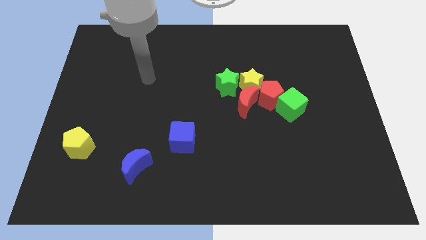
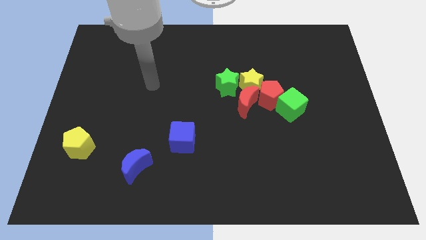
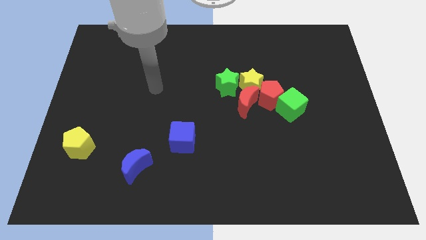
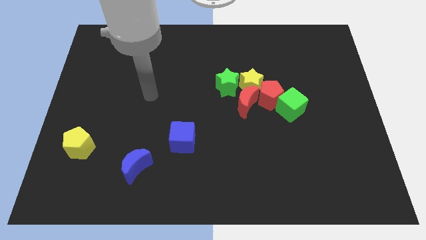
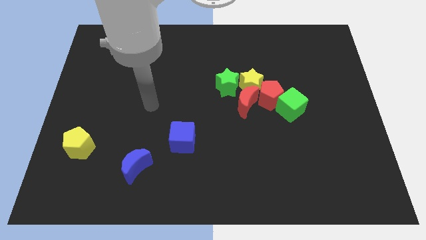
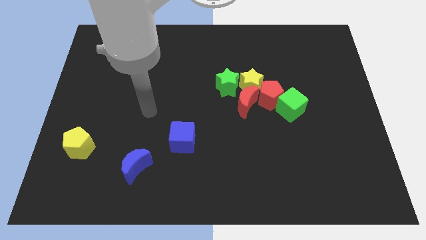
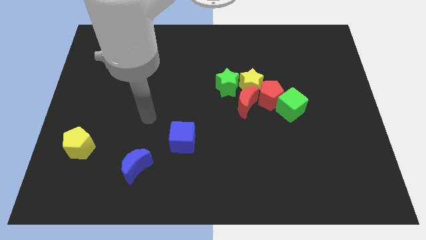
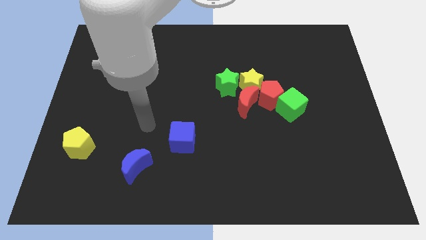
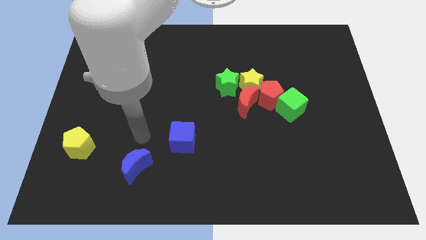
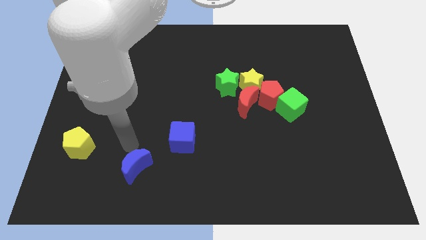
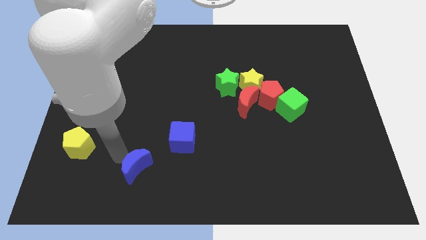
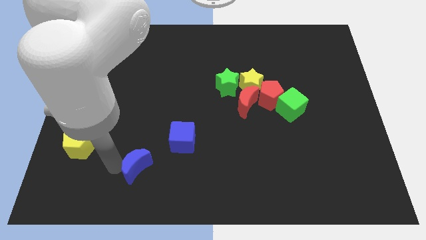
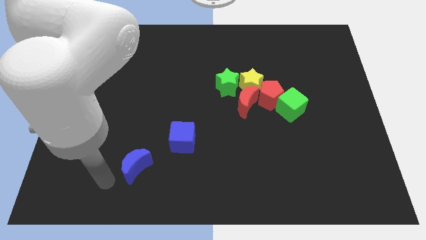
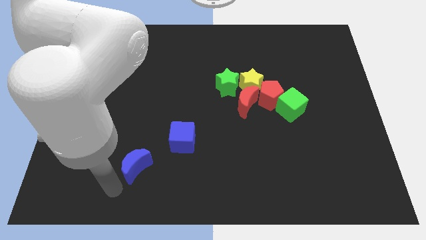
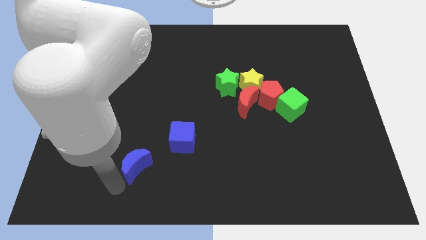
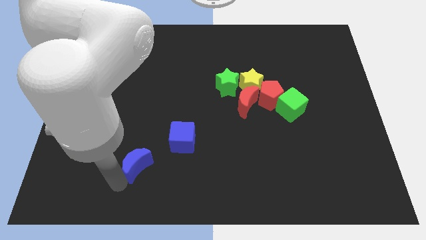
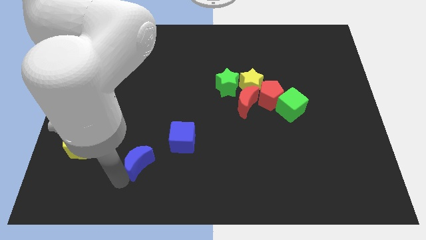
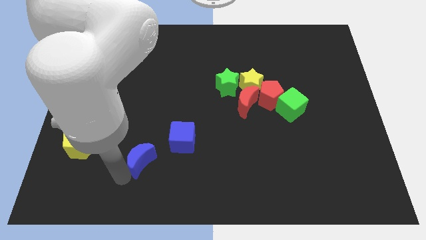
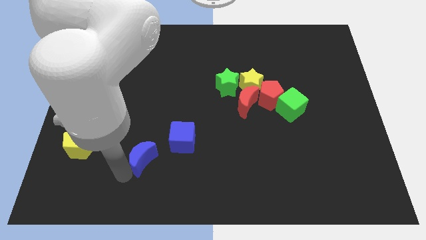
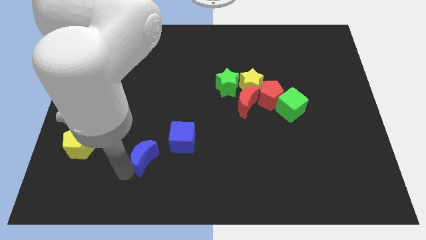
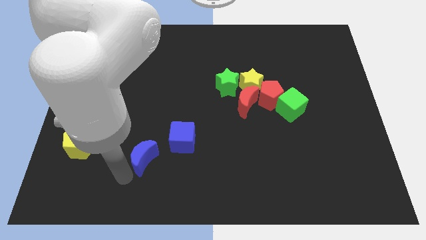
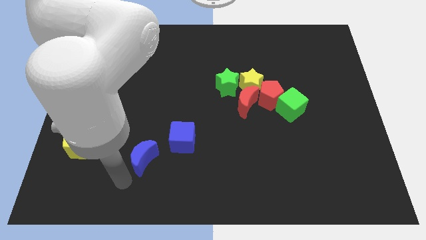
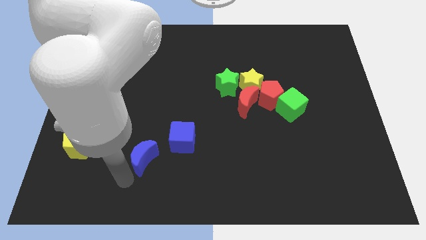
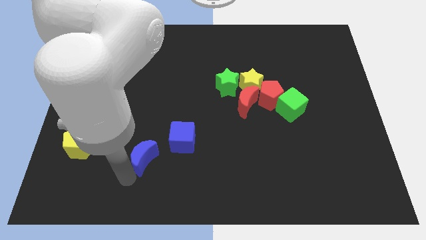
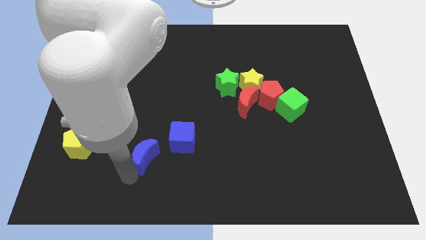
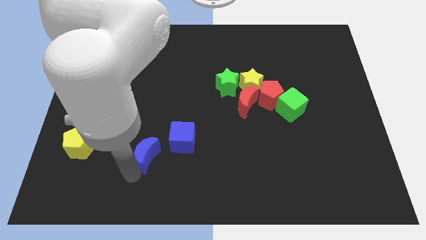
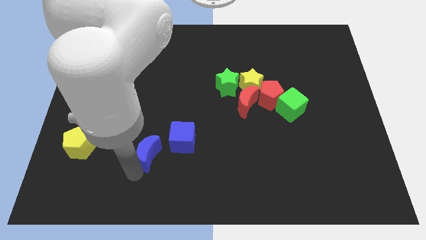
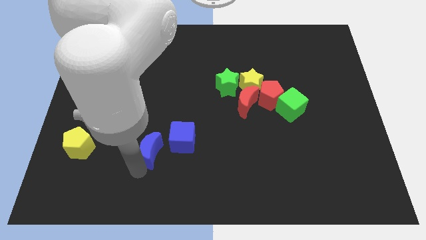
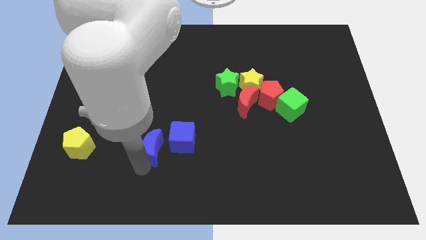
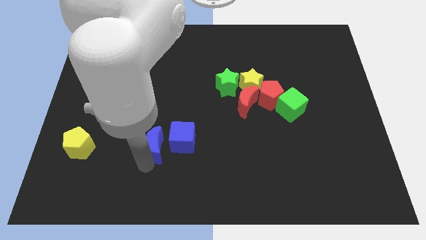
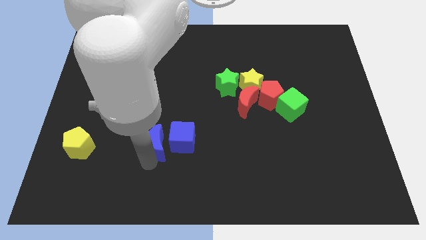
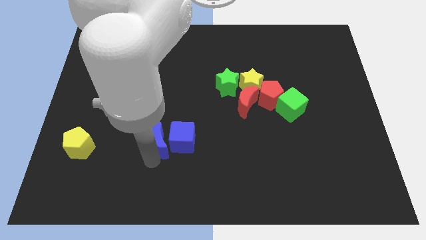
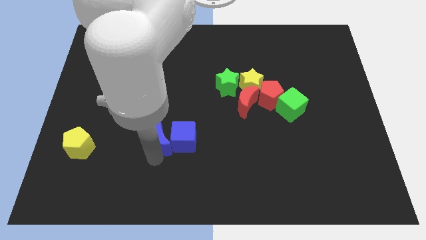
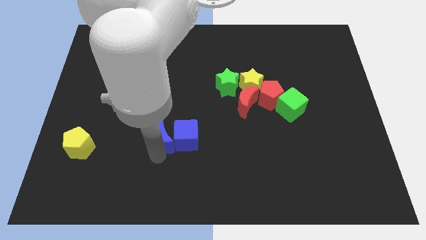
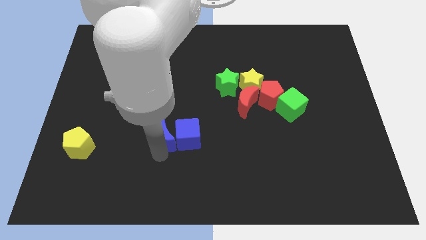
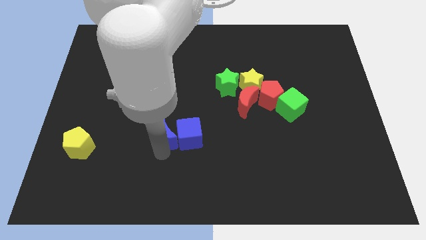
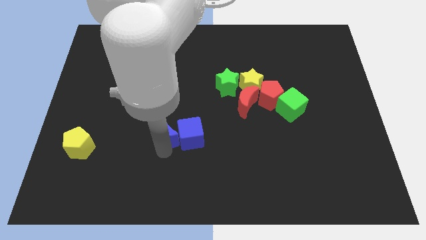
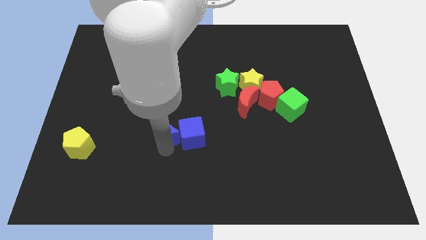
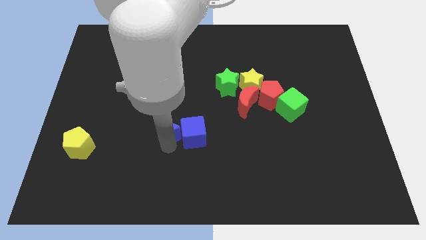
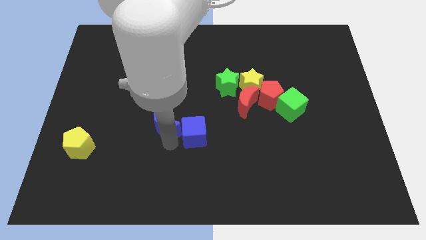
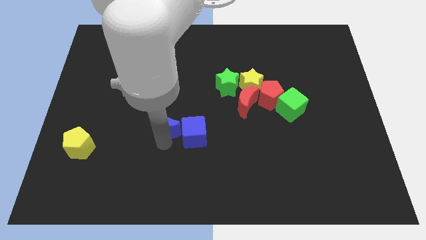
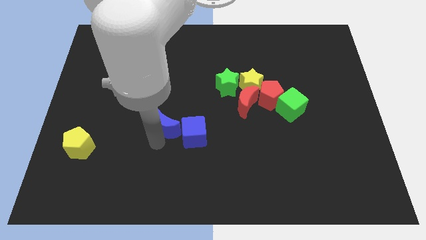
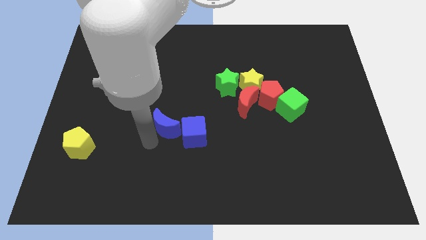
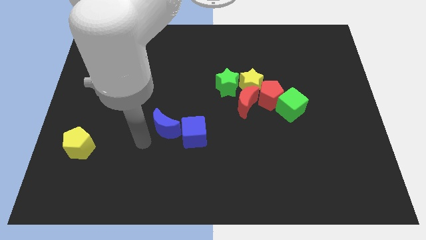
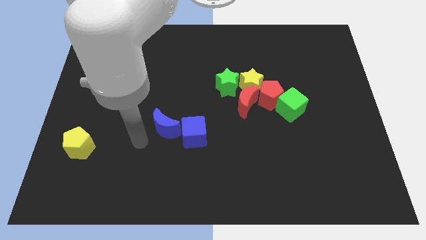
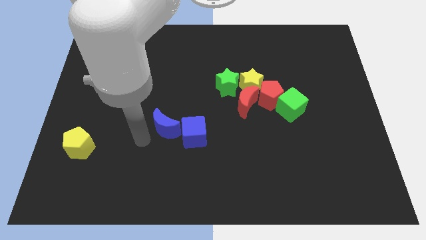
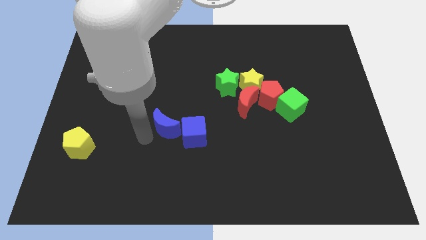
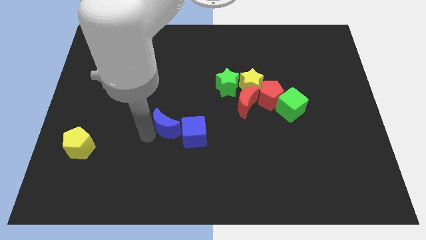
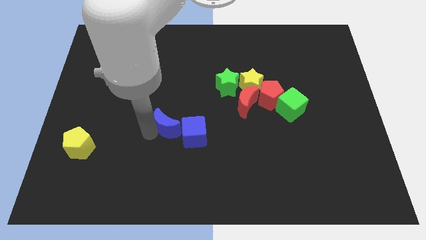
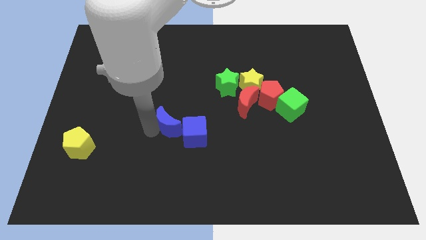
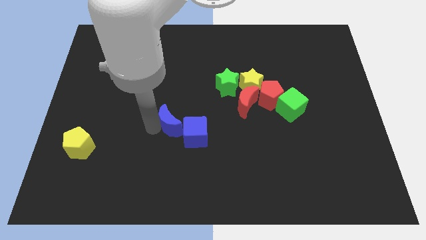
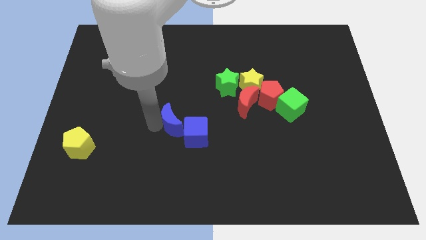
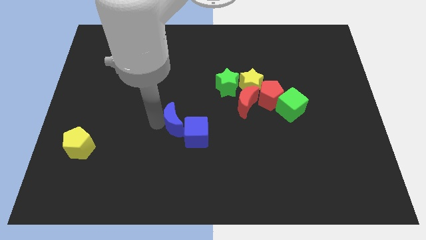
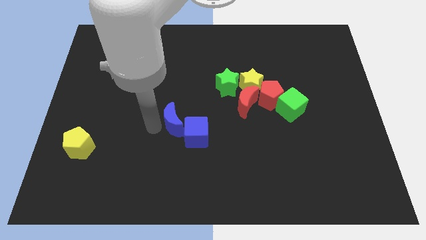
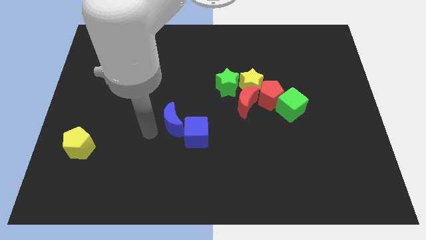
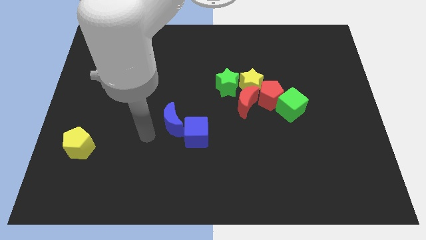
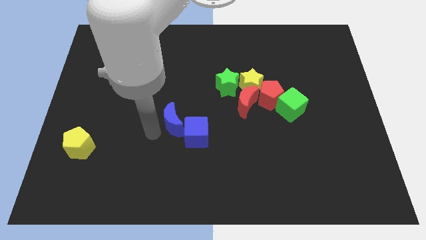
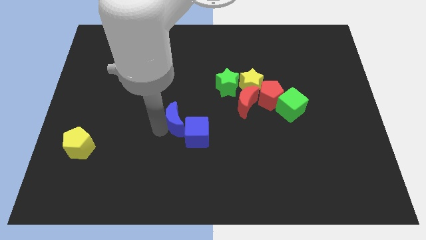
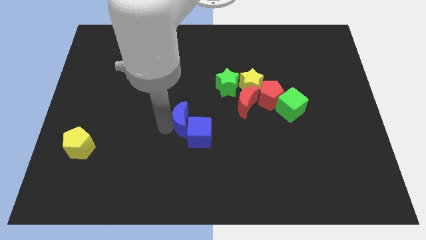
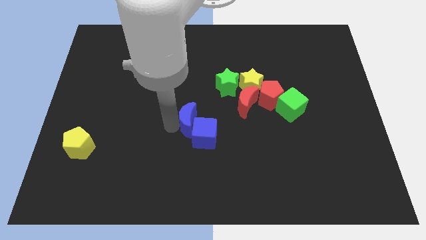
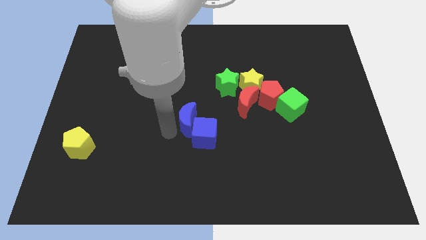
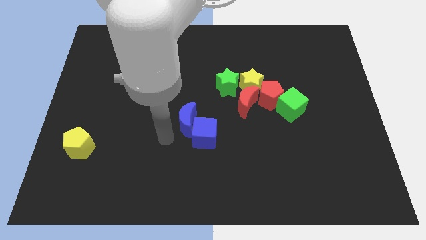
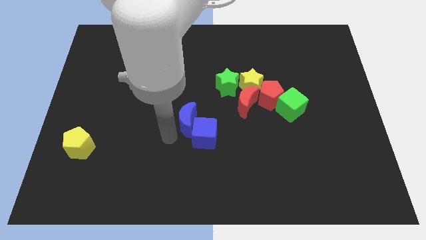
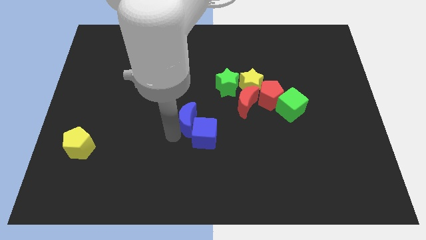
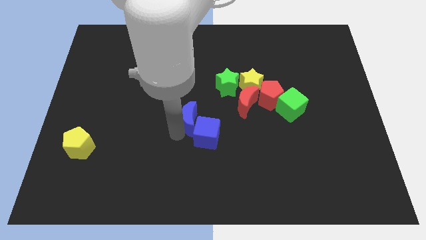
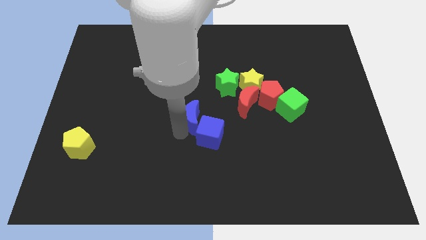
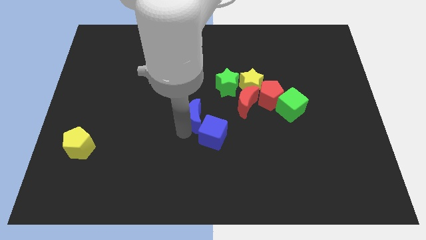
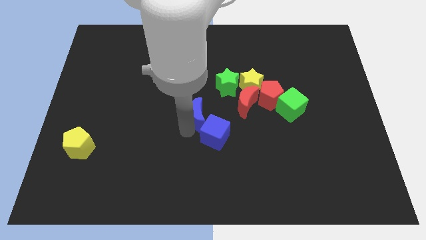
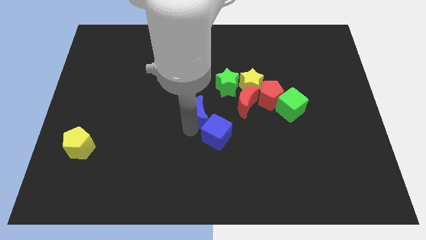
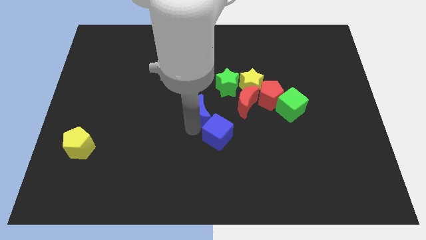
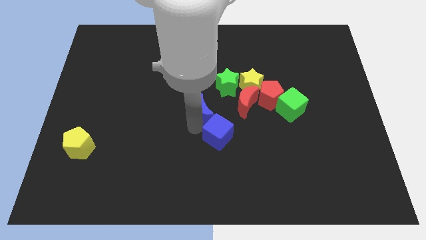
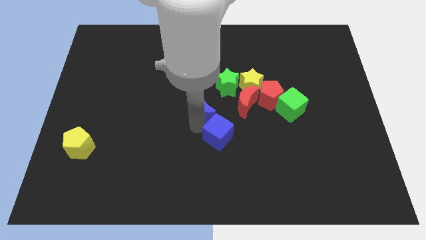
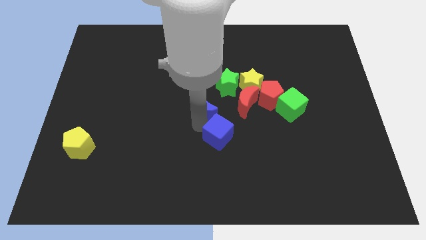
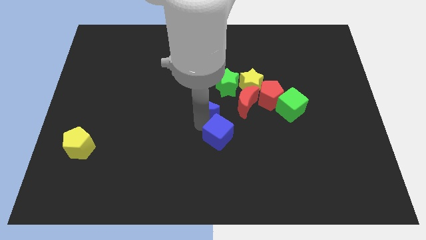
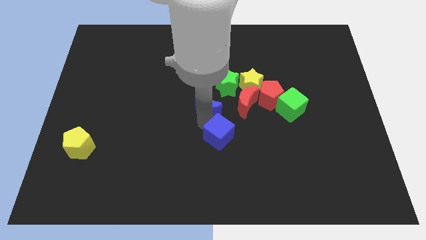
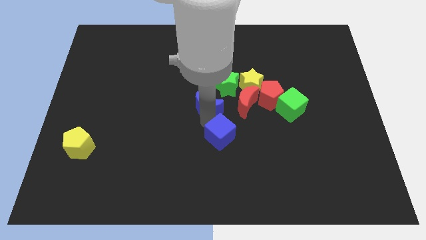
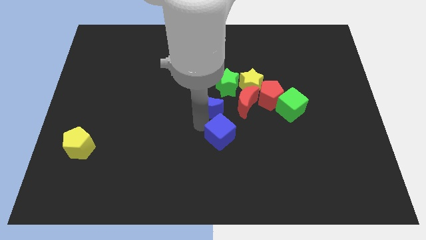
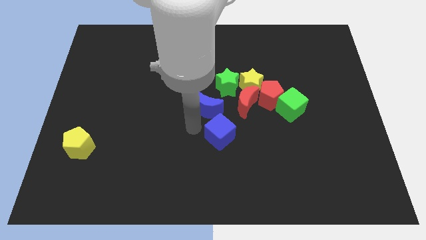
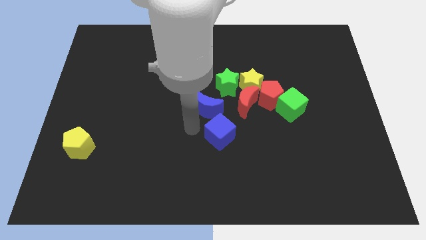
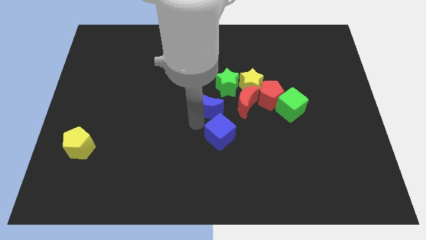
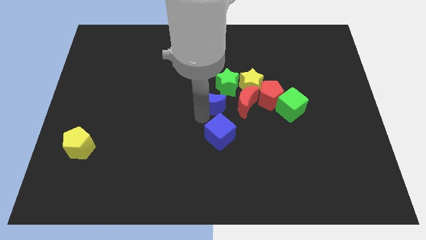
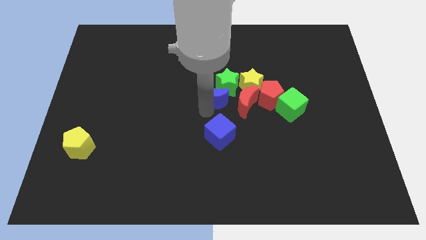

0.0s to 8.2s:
slide the blue moon next to the green star
